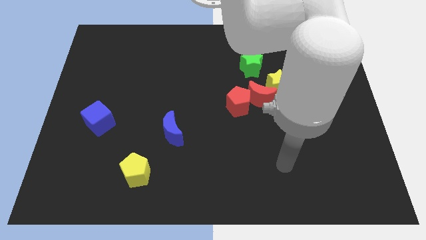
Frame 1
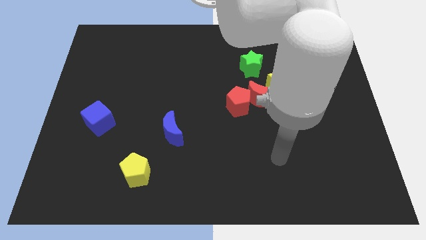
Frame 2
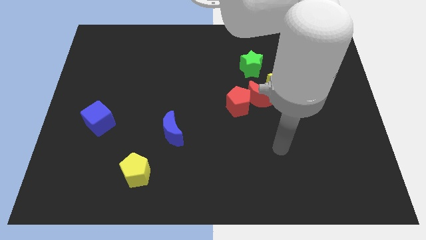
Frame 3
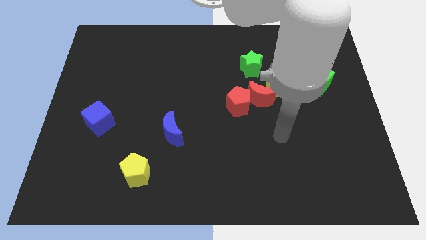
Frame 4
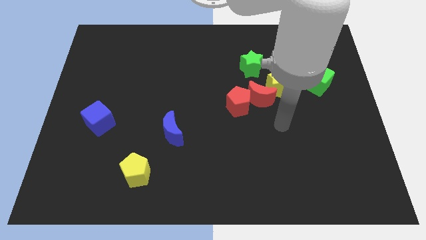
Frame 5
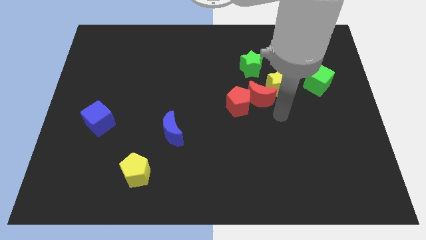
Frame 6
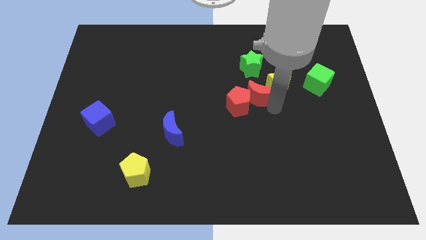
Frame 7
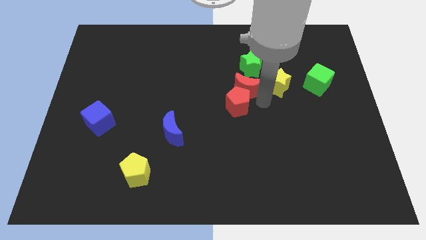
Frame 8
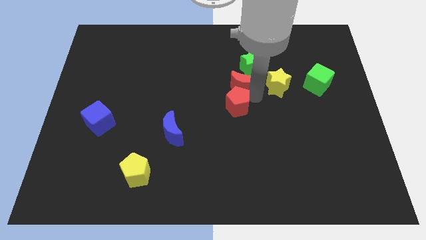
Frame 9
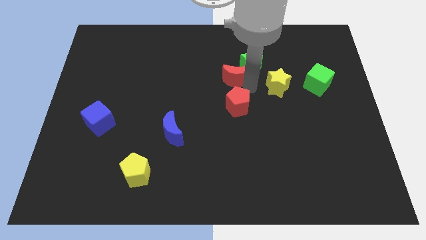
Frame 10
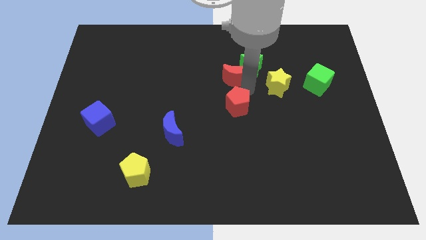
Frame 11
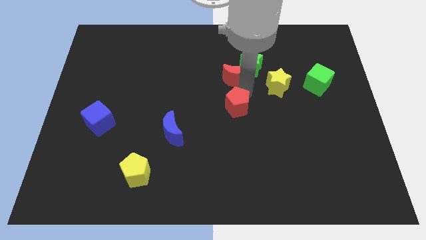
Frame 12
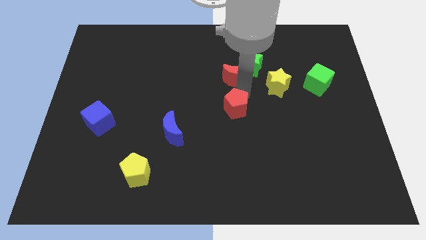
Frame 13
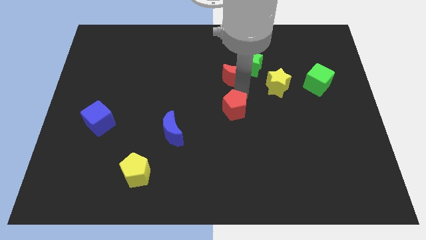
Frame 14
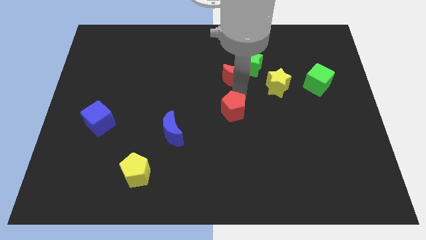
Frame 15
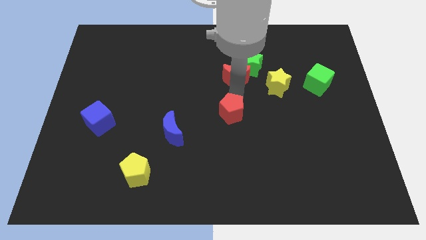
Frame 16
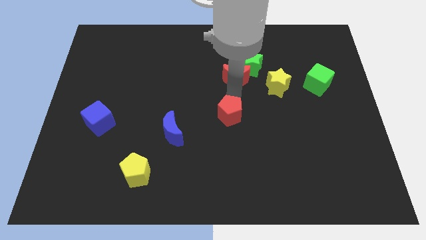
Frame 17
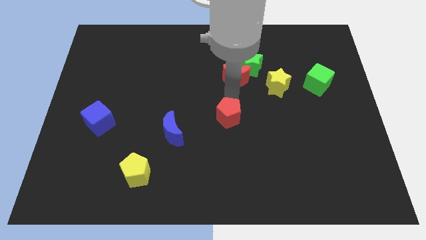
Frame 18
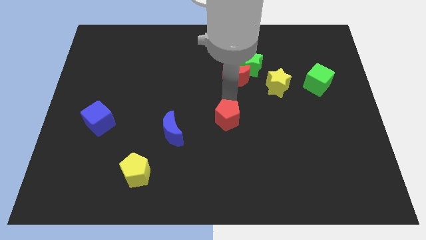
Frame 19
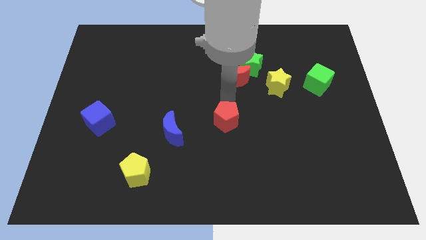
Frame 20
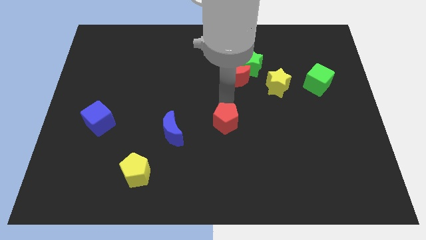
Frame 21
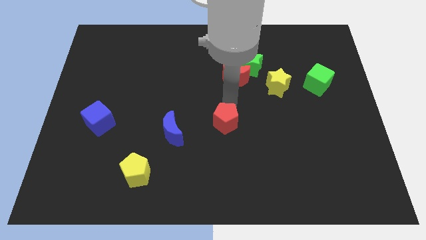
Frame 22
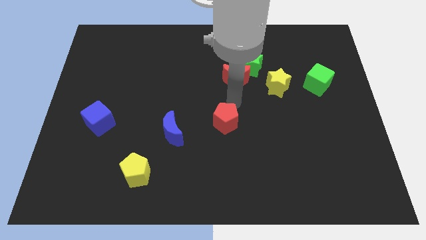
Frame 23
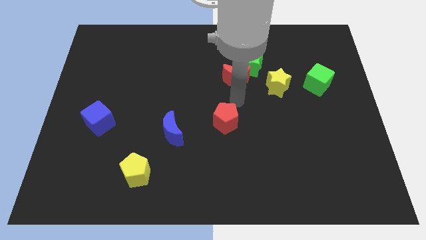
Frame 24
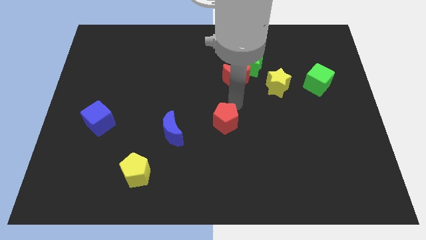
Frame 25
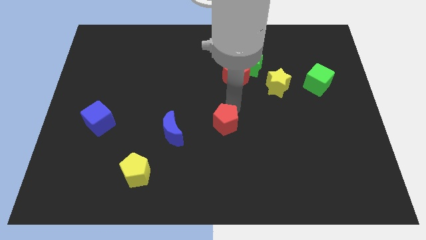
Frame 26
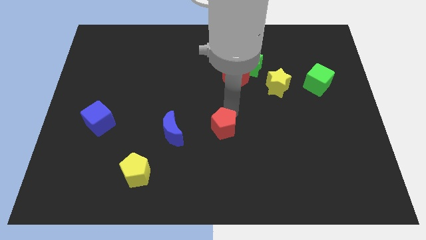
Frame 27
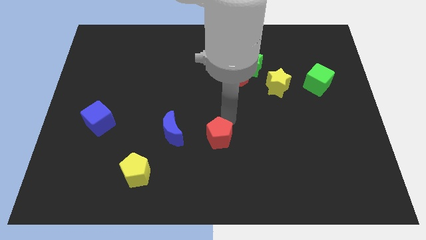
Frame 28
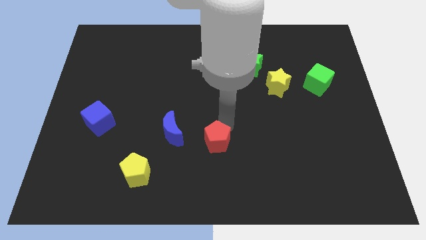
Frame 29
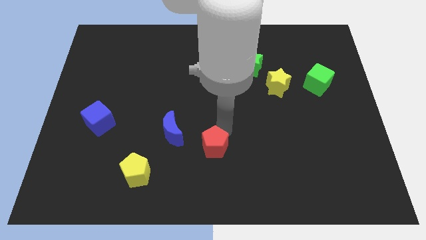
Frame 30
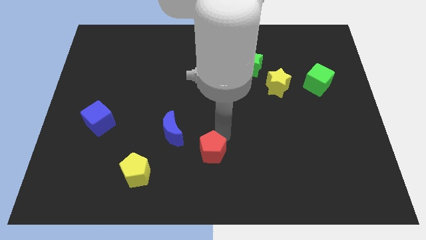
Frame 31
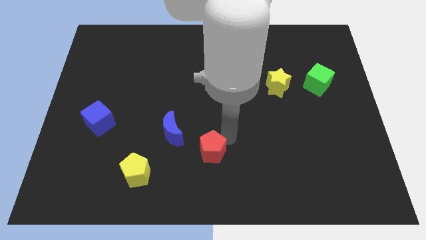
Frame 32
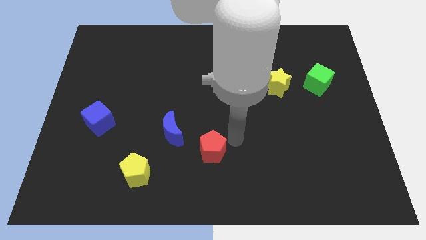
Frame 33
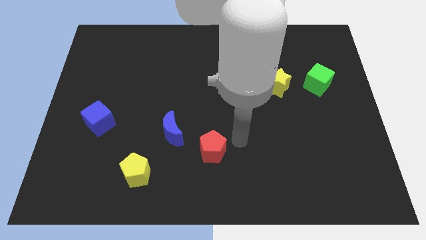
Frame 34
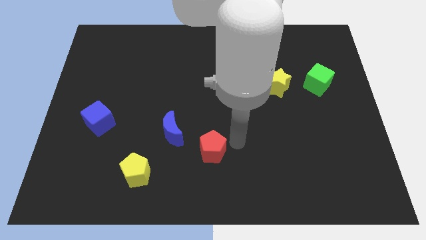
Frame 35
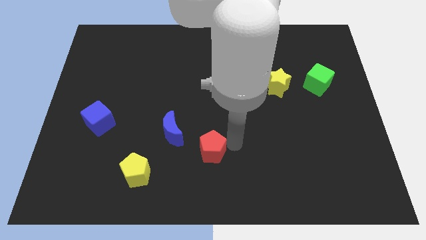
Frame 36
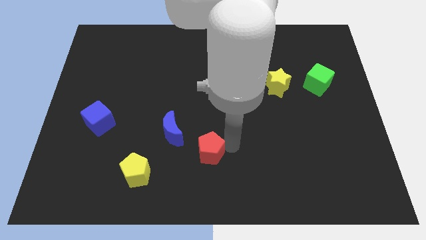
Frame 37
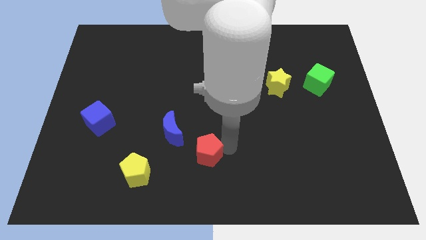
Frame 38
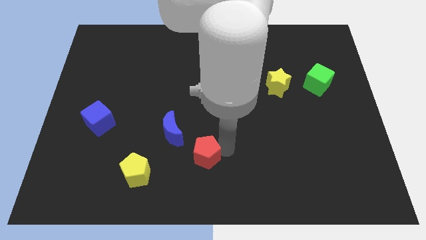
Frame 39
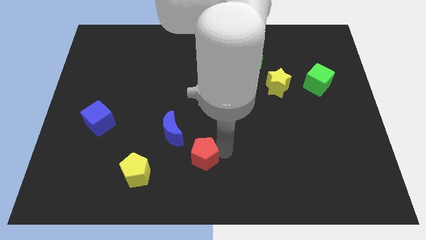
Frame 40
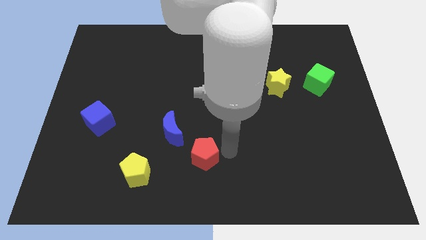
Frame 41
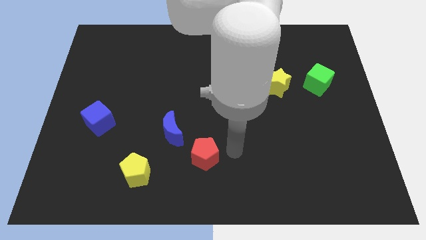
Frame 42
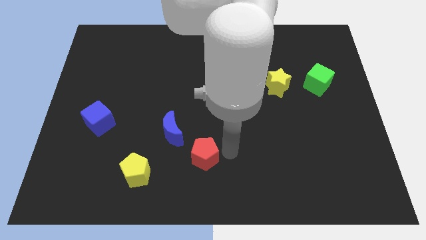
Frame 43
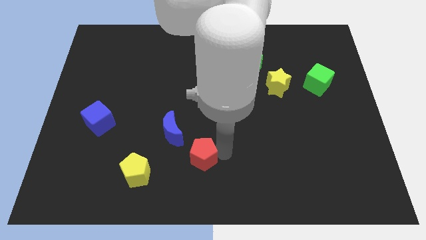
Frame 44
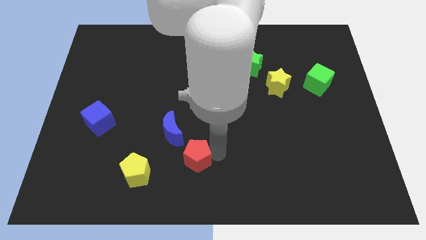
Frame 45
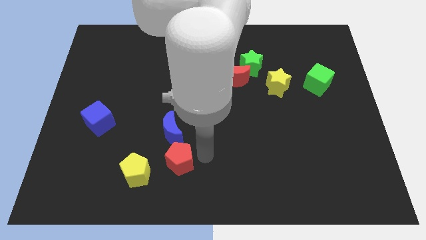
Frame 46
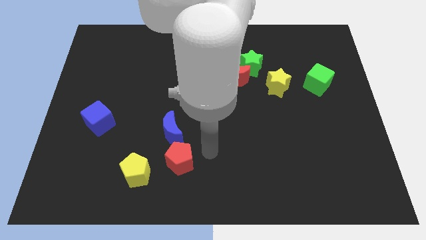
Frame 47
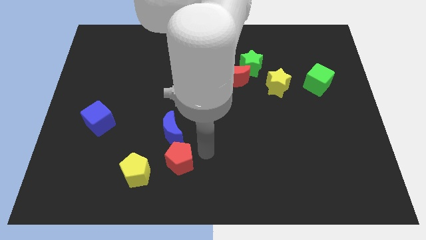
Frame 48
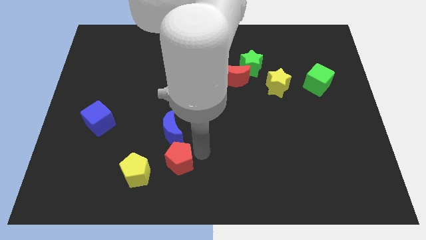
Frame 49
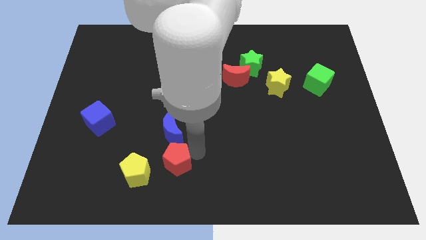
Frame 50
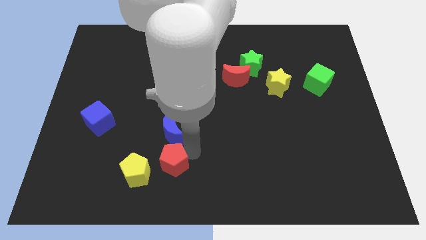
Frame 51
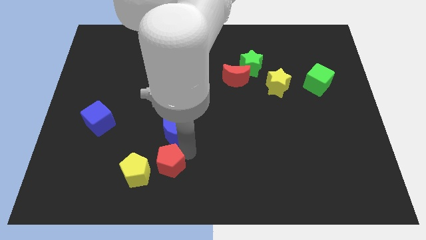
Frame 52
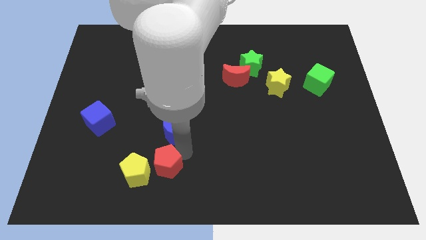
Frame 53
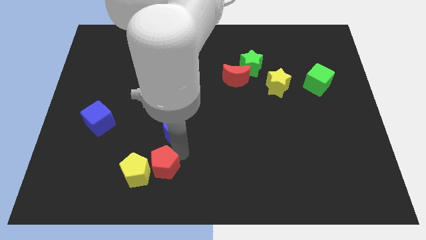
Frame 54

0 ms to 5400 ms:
push the red pentagon close to the yellow pentagon

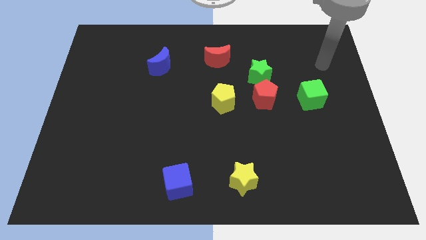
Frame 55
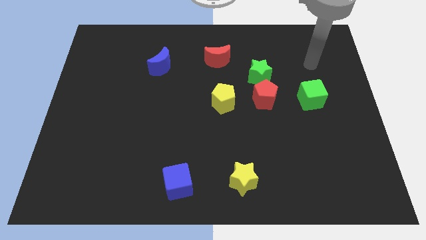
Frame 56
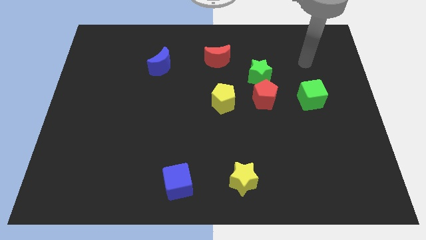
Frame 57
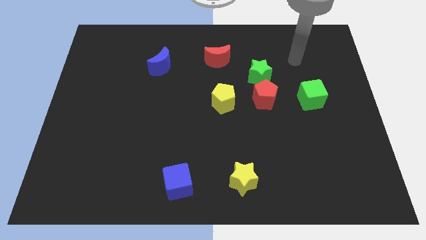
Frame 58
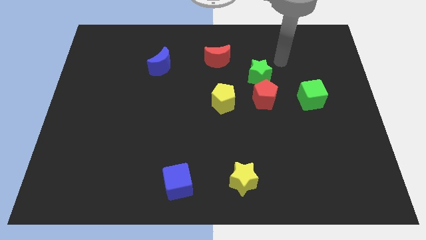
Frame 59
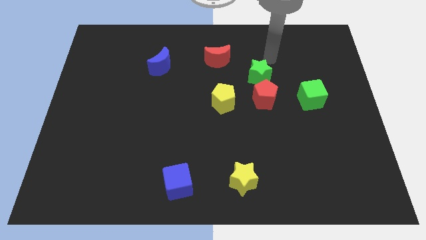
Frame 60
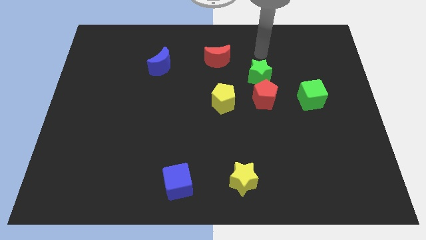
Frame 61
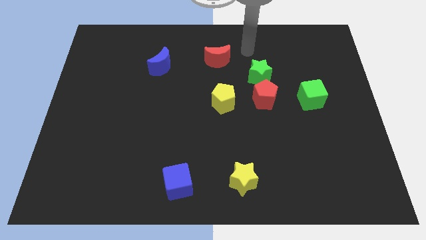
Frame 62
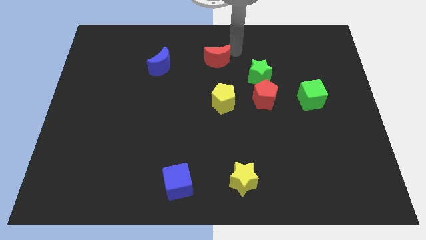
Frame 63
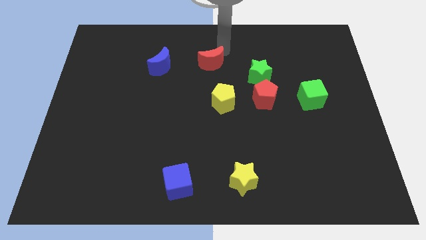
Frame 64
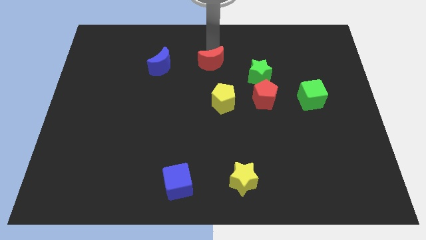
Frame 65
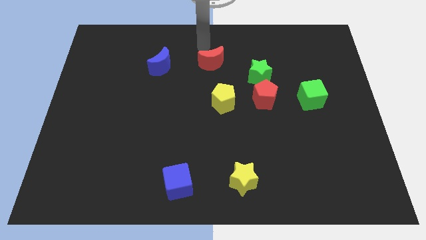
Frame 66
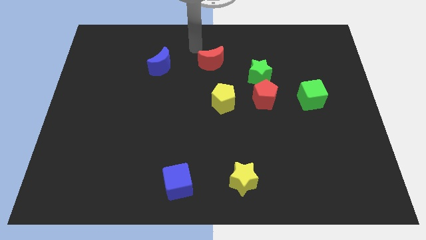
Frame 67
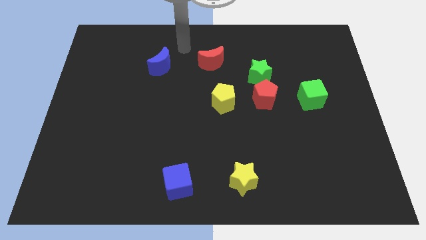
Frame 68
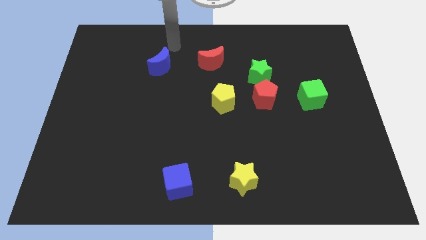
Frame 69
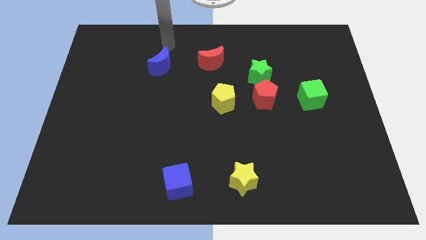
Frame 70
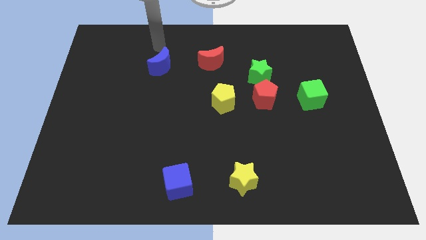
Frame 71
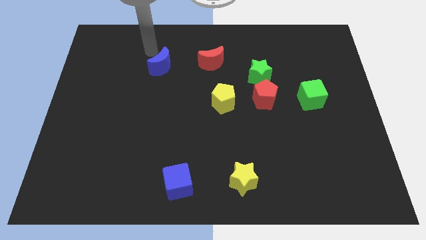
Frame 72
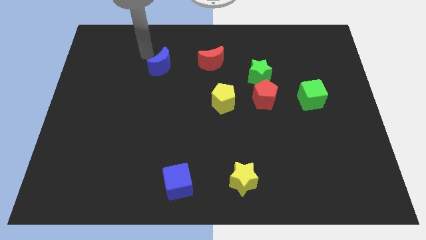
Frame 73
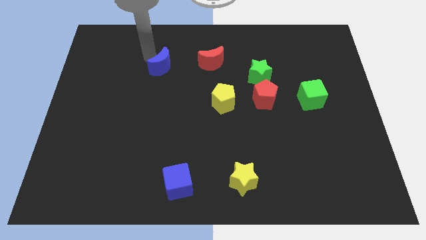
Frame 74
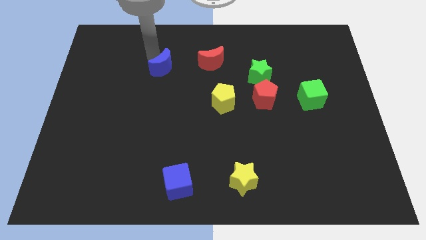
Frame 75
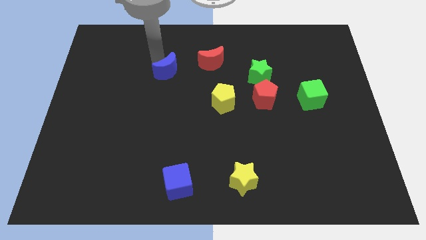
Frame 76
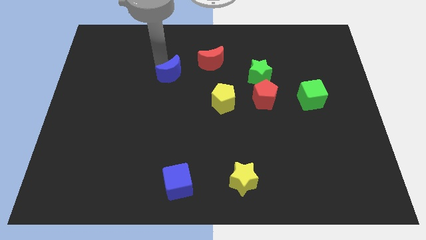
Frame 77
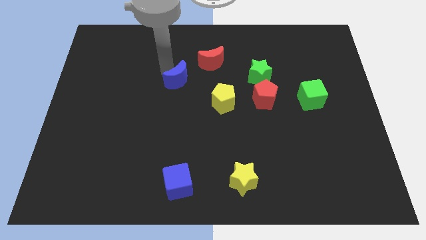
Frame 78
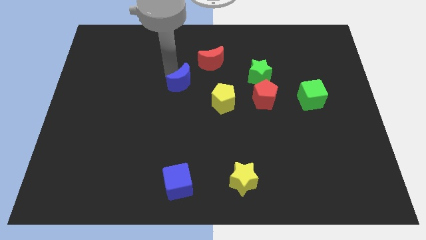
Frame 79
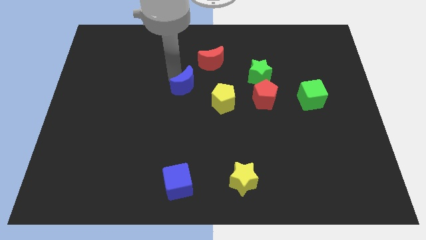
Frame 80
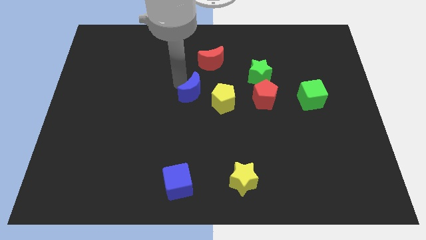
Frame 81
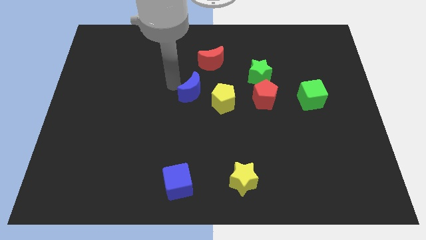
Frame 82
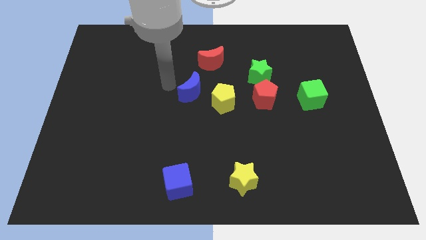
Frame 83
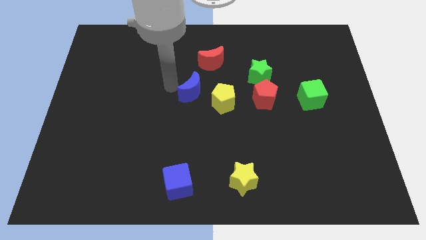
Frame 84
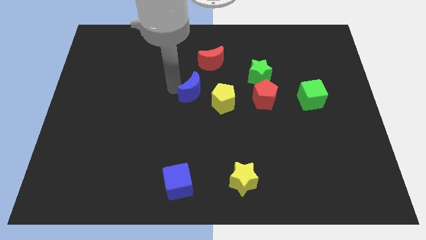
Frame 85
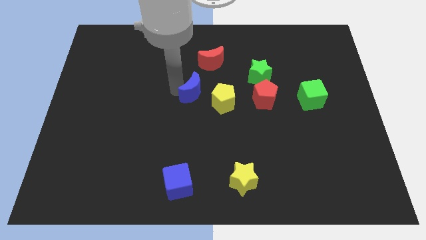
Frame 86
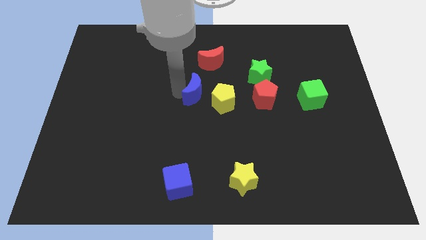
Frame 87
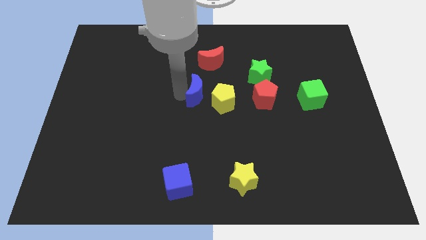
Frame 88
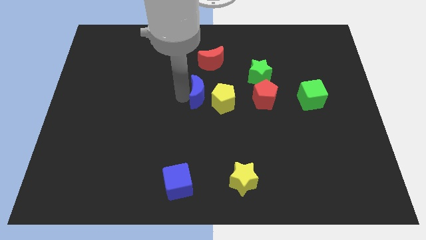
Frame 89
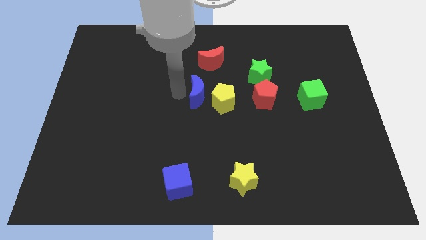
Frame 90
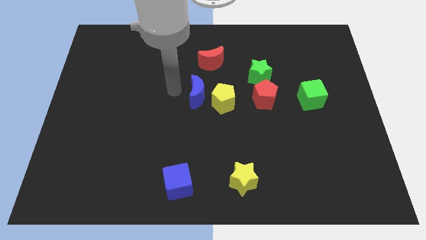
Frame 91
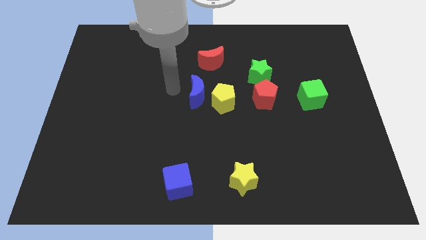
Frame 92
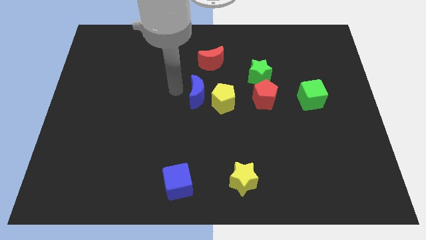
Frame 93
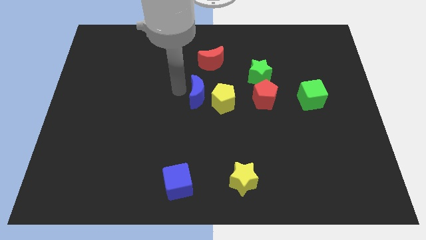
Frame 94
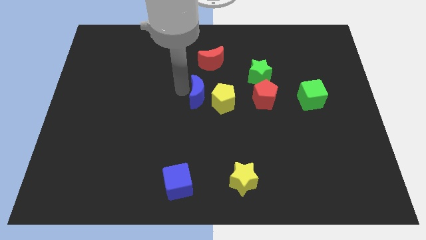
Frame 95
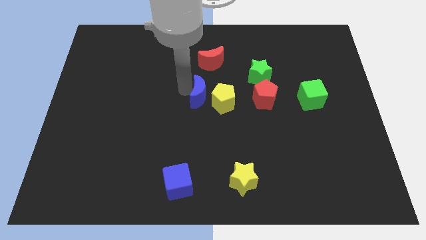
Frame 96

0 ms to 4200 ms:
push the blue moon towards the yellow pentagon
